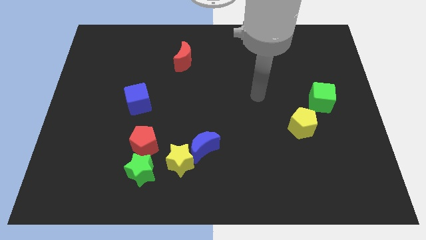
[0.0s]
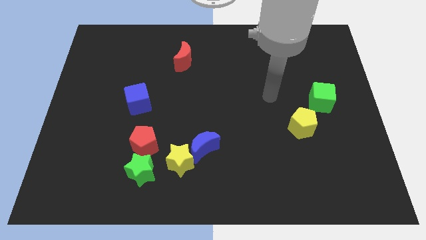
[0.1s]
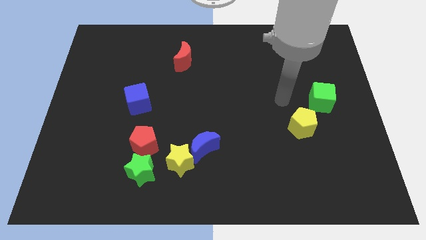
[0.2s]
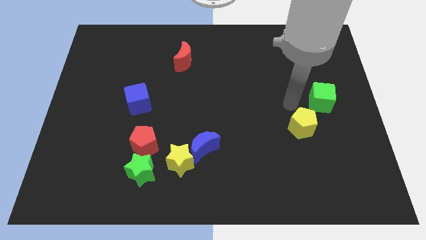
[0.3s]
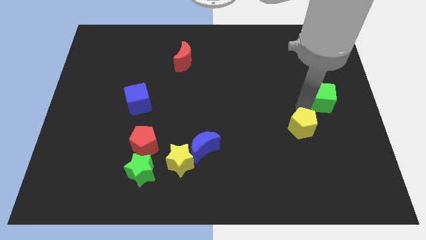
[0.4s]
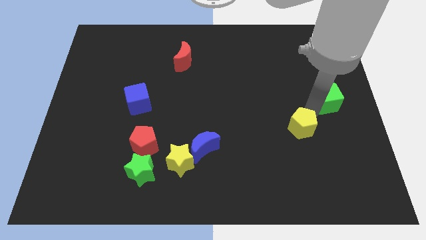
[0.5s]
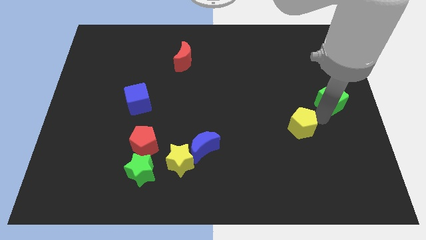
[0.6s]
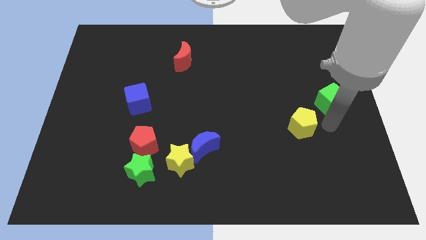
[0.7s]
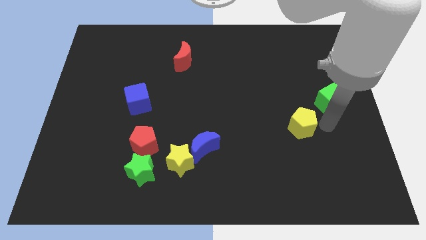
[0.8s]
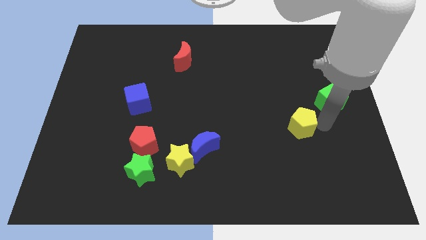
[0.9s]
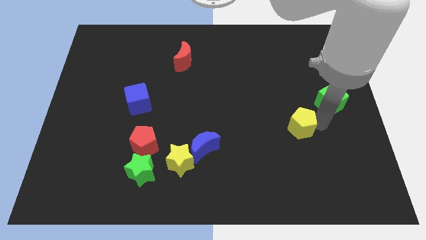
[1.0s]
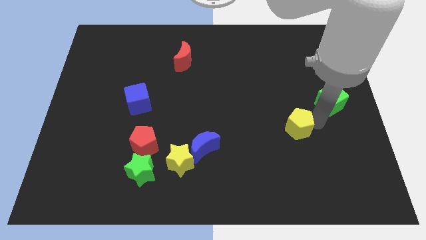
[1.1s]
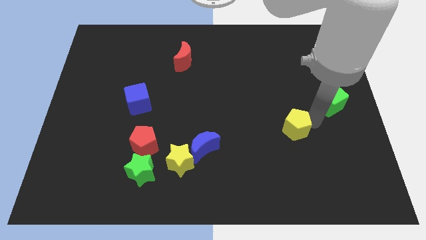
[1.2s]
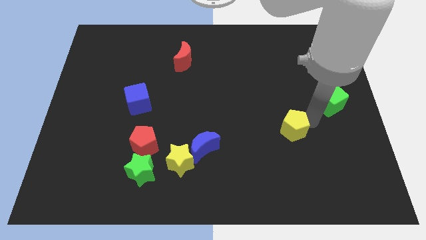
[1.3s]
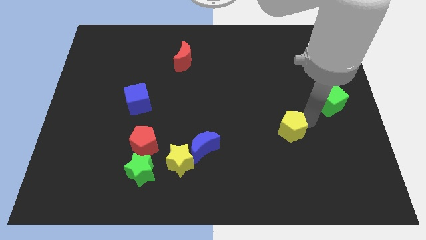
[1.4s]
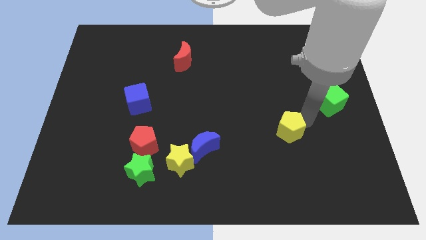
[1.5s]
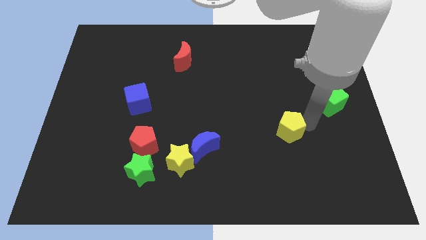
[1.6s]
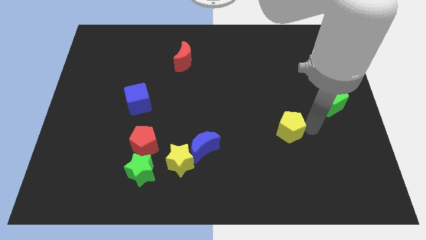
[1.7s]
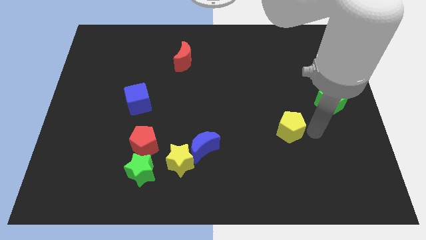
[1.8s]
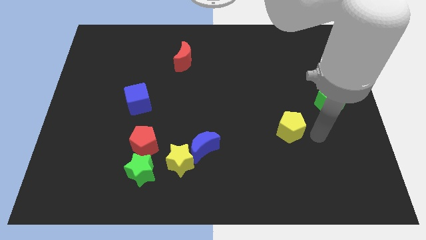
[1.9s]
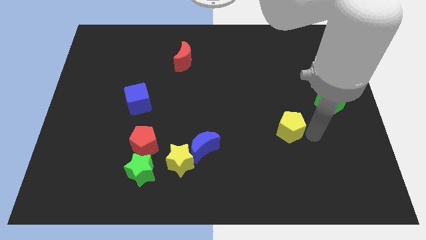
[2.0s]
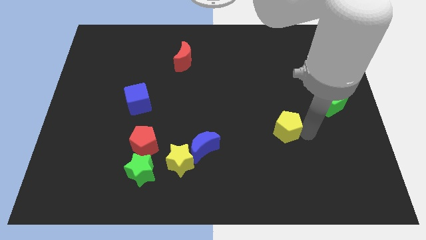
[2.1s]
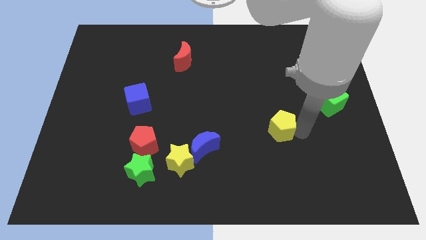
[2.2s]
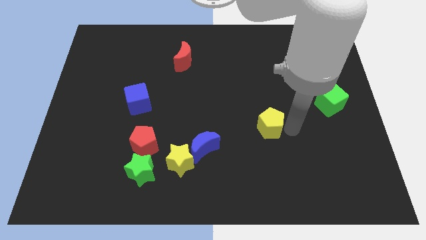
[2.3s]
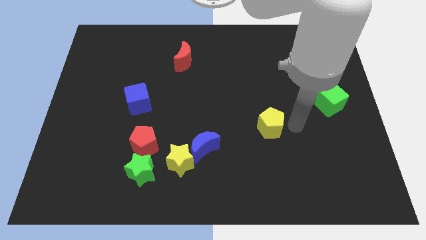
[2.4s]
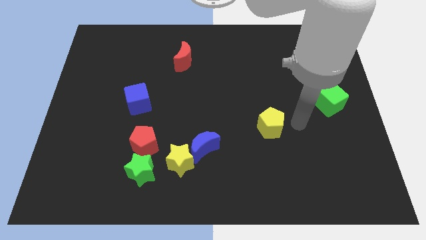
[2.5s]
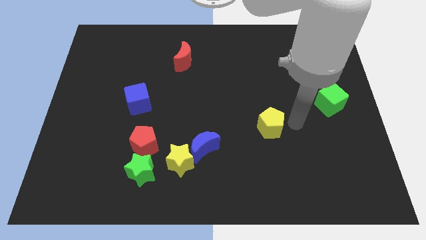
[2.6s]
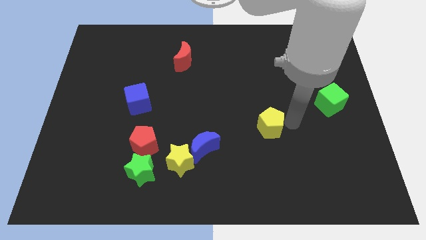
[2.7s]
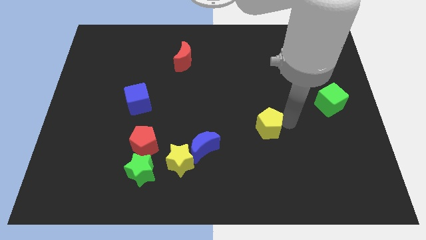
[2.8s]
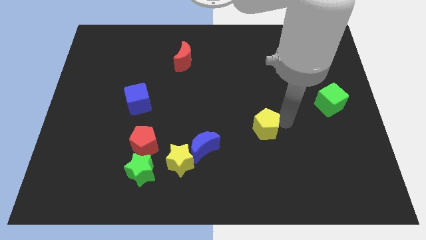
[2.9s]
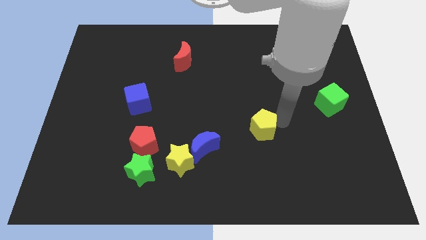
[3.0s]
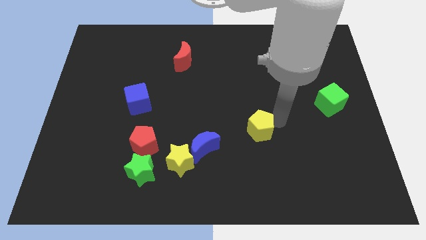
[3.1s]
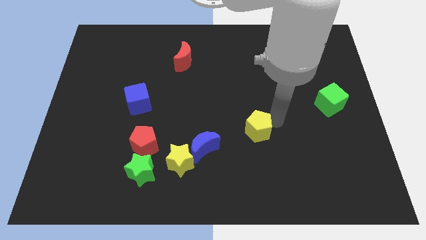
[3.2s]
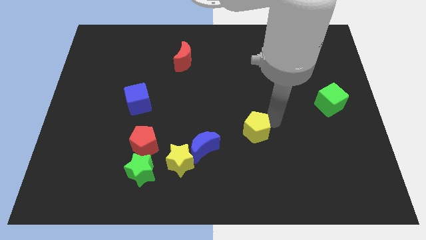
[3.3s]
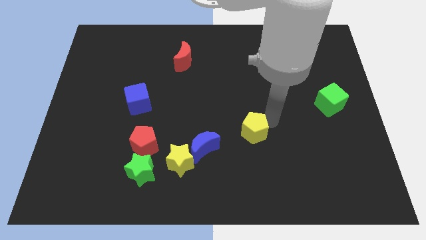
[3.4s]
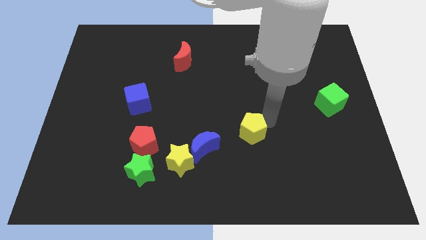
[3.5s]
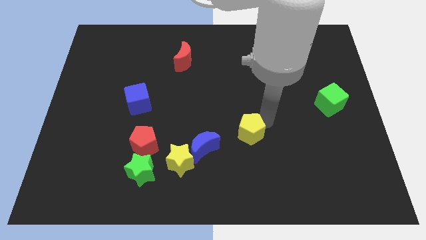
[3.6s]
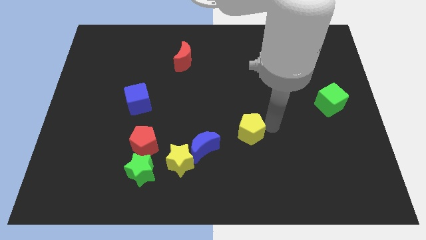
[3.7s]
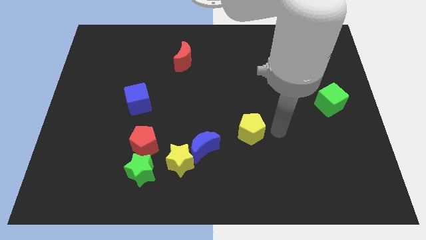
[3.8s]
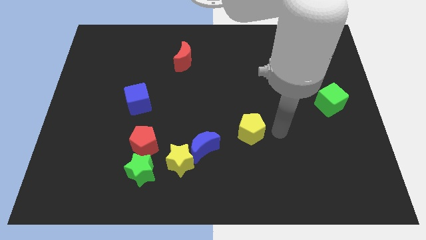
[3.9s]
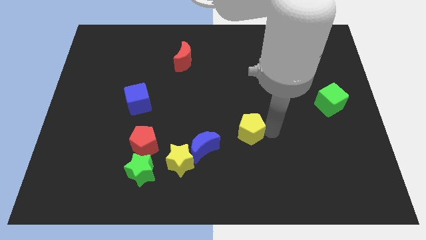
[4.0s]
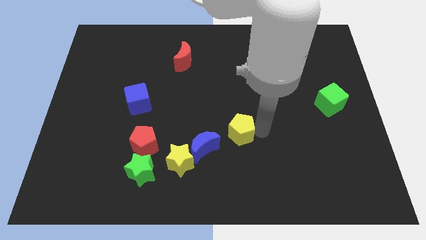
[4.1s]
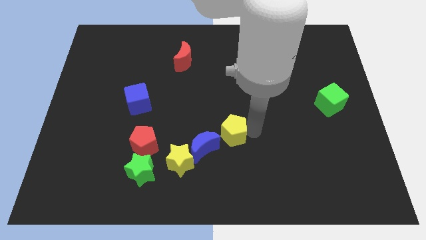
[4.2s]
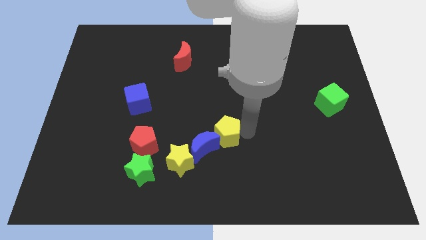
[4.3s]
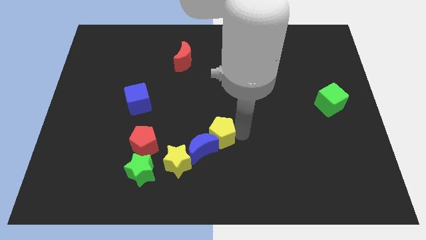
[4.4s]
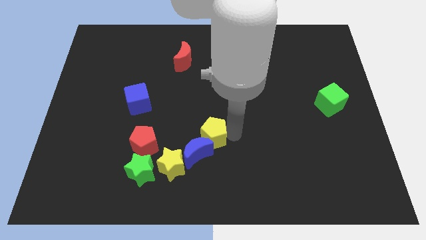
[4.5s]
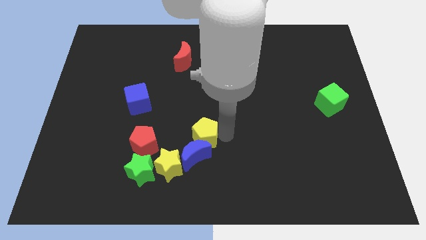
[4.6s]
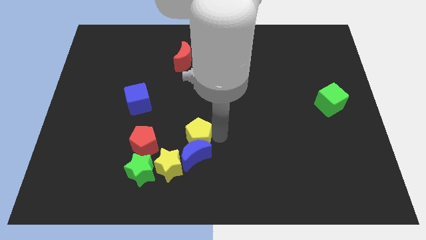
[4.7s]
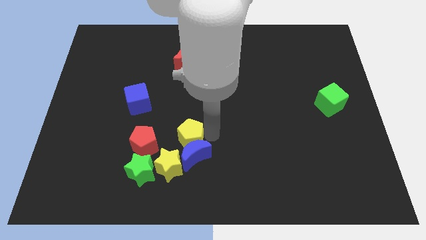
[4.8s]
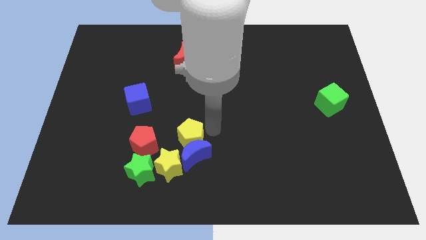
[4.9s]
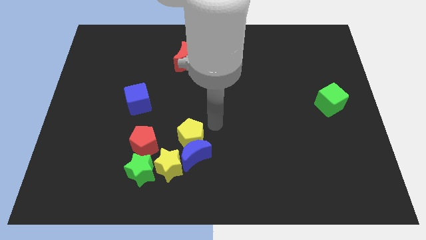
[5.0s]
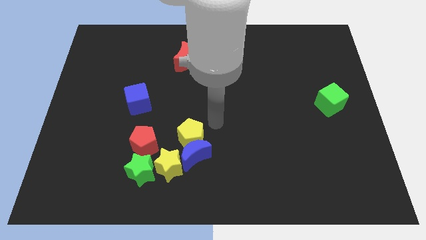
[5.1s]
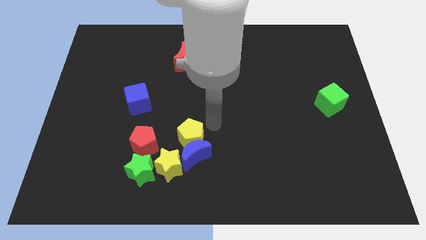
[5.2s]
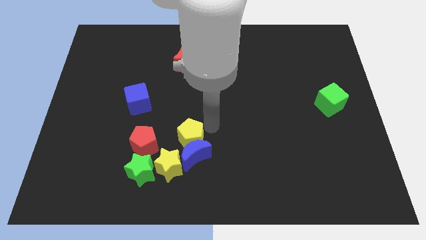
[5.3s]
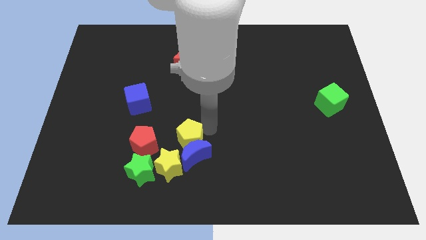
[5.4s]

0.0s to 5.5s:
move the yellow pentagon to the top right of the green star

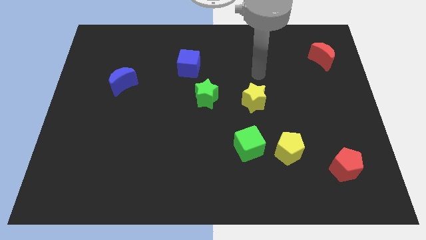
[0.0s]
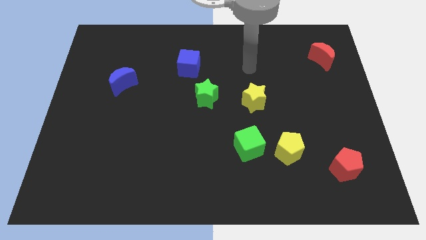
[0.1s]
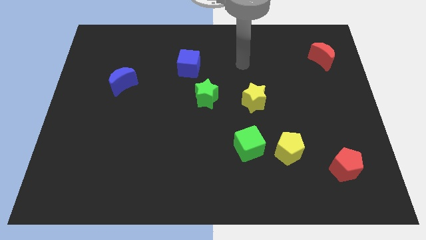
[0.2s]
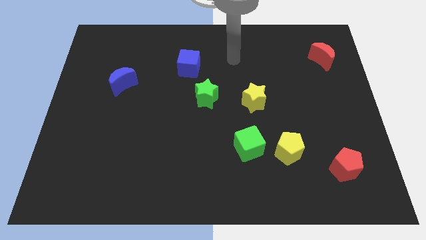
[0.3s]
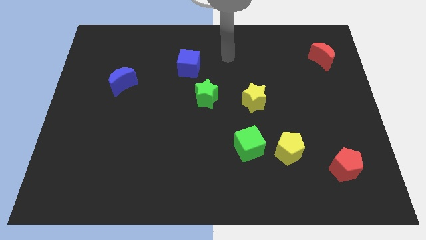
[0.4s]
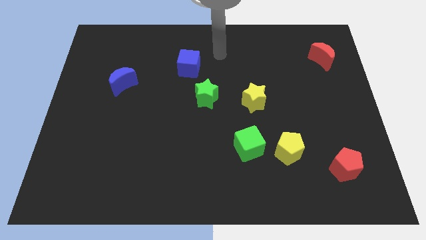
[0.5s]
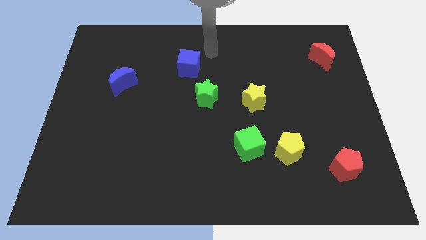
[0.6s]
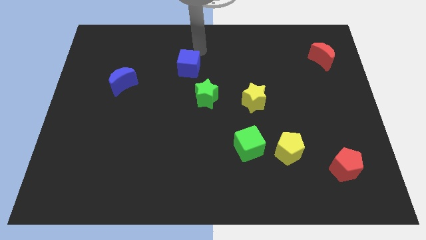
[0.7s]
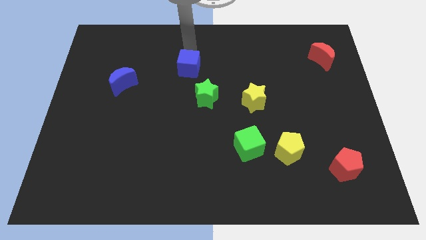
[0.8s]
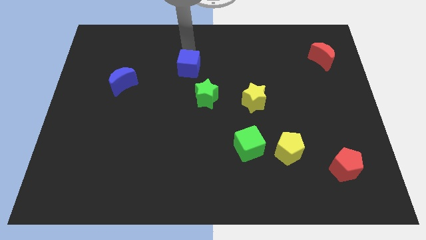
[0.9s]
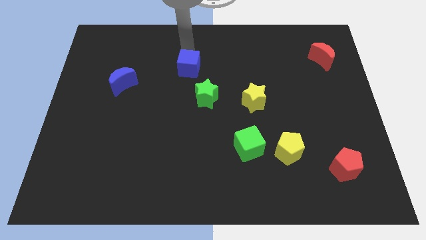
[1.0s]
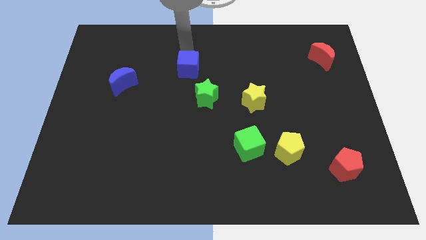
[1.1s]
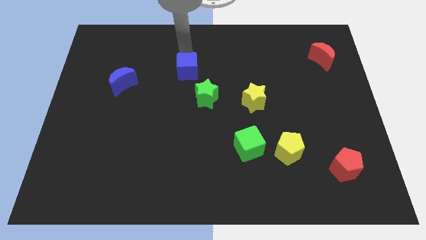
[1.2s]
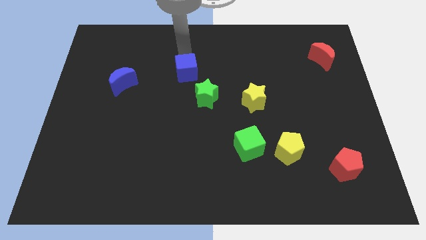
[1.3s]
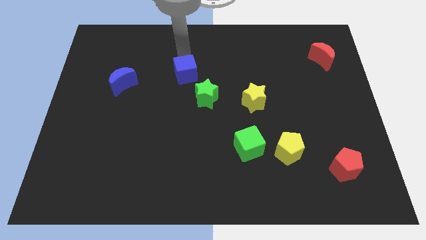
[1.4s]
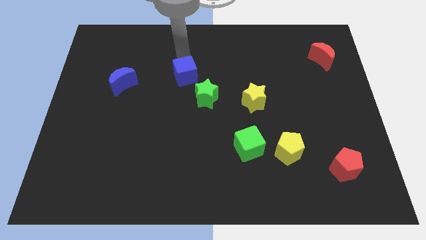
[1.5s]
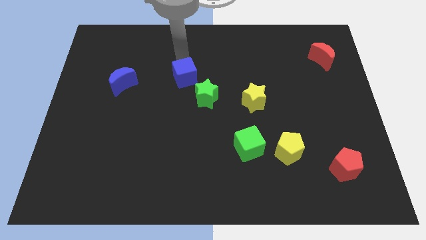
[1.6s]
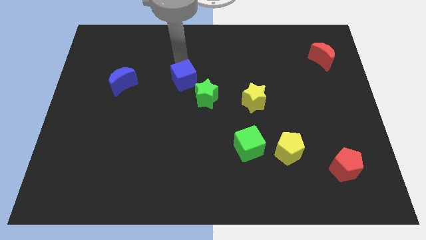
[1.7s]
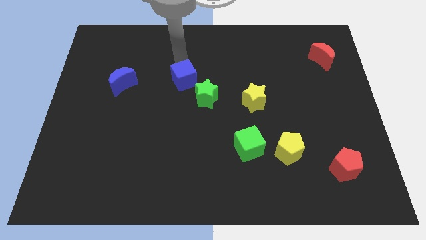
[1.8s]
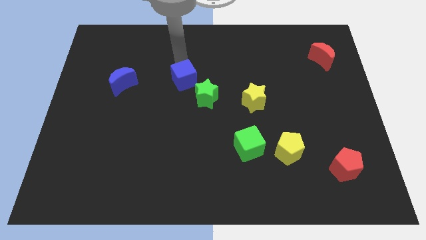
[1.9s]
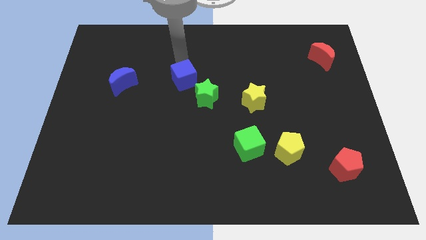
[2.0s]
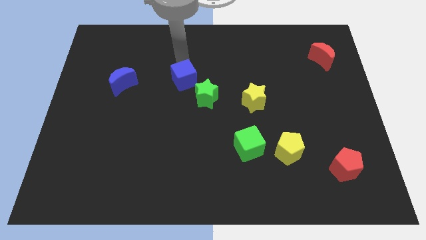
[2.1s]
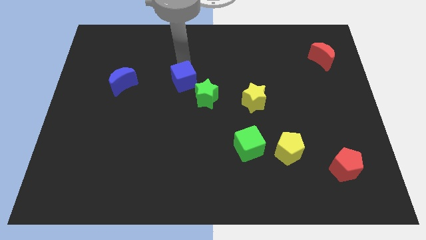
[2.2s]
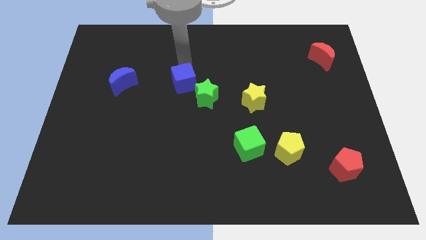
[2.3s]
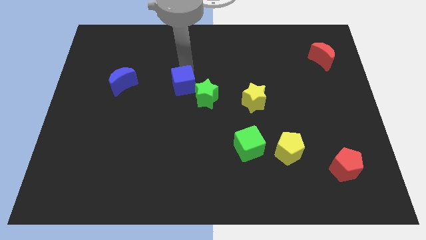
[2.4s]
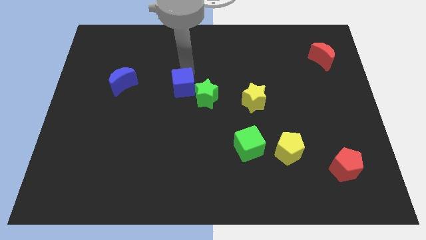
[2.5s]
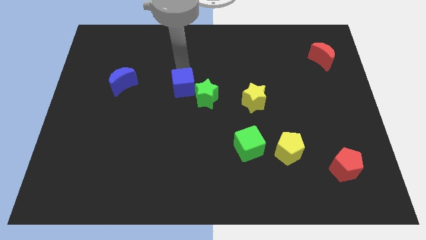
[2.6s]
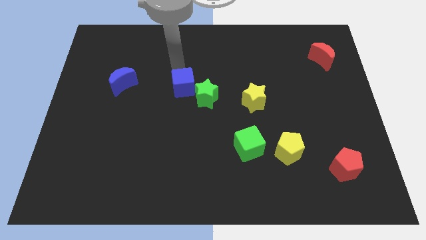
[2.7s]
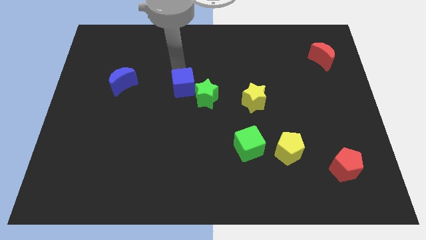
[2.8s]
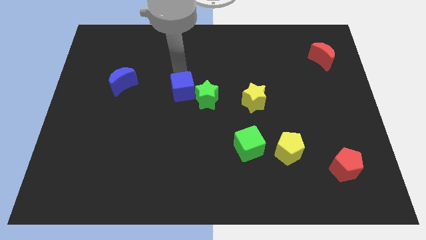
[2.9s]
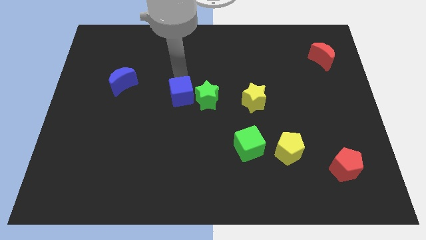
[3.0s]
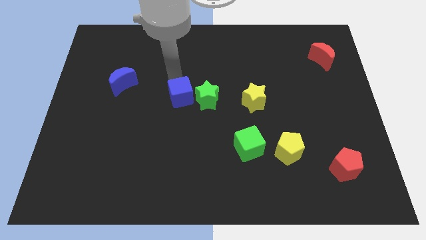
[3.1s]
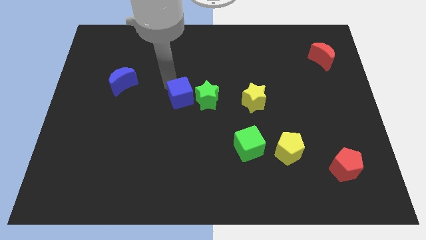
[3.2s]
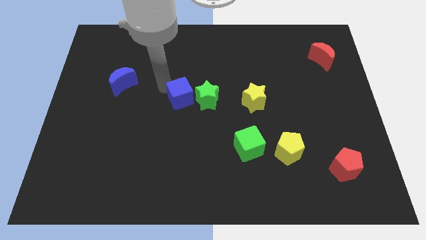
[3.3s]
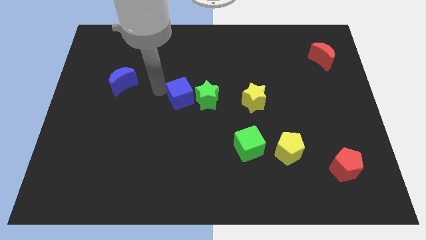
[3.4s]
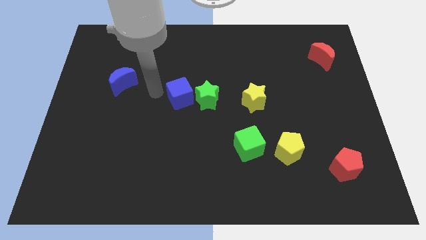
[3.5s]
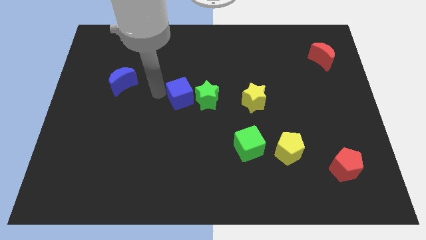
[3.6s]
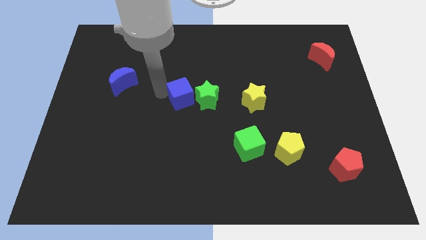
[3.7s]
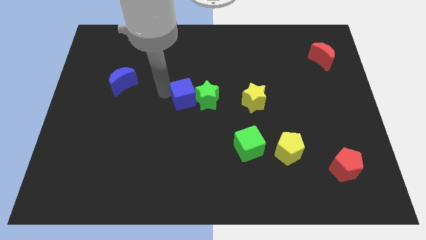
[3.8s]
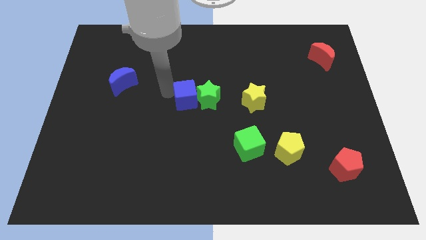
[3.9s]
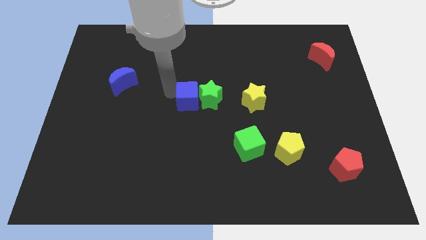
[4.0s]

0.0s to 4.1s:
push the blue cube to the left of the yellow star
